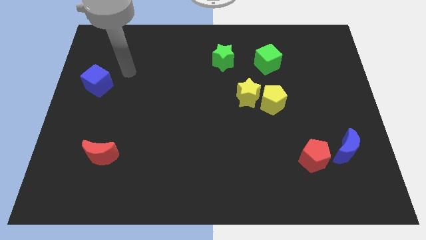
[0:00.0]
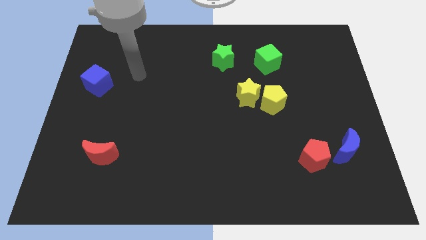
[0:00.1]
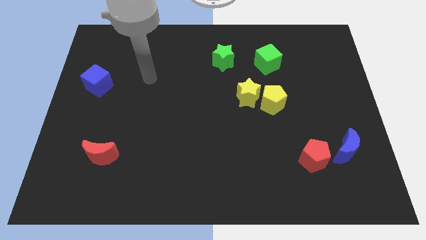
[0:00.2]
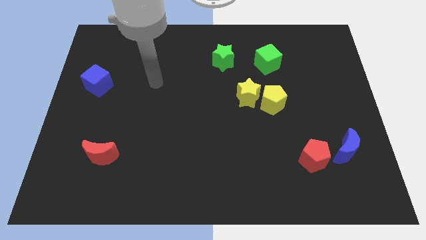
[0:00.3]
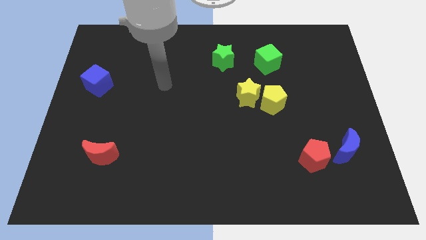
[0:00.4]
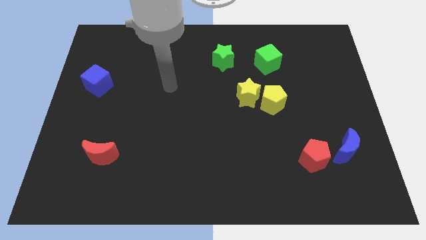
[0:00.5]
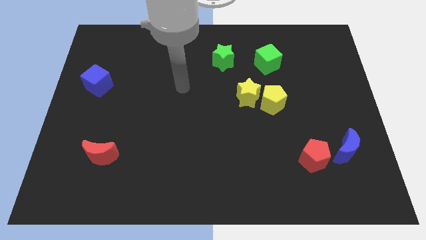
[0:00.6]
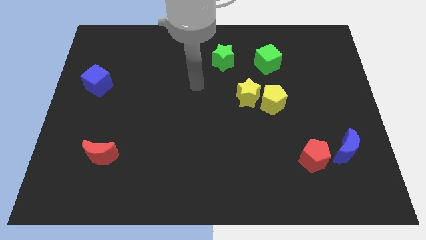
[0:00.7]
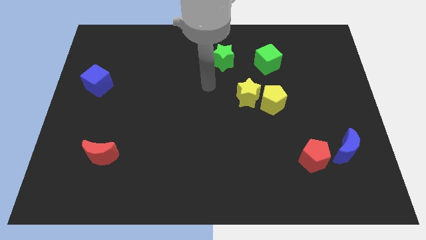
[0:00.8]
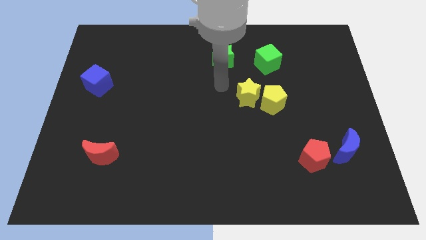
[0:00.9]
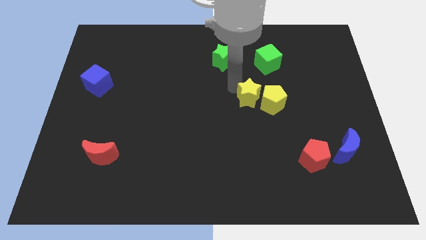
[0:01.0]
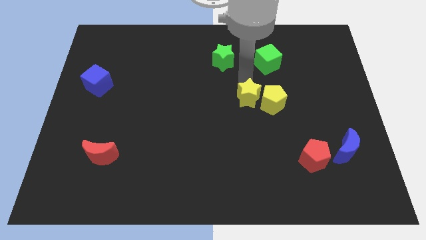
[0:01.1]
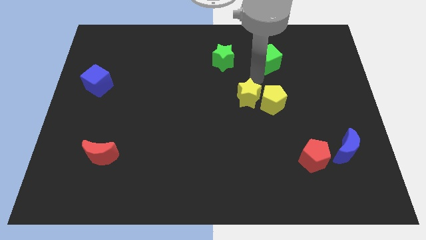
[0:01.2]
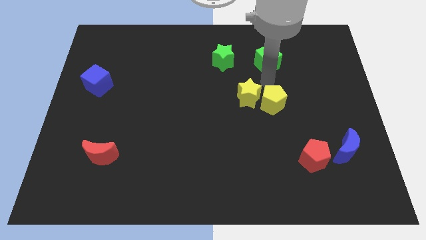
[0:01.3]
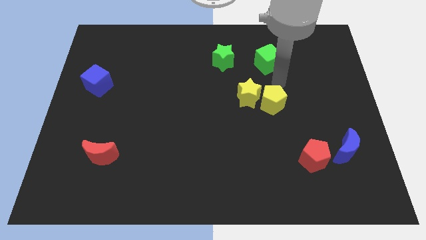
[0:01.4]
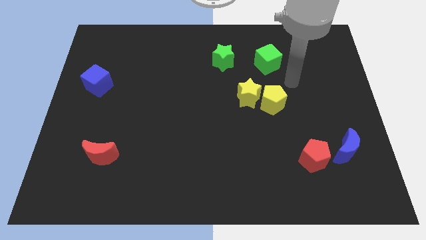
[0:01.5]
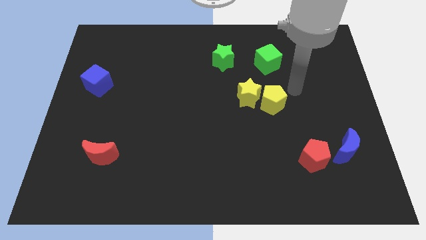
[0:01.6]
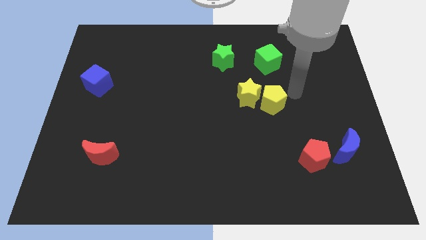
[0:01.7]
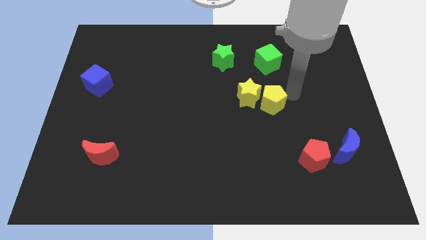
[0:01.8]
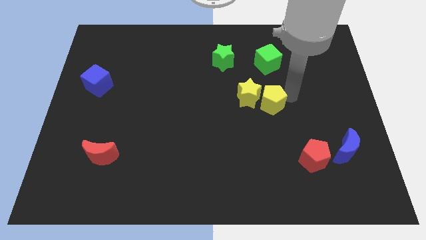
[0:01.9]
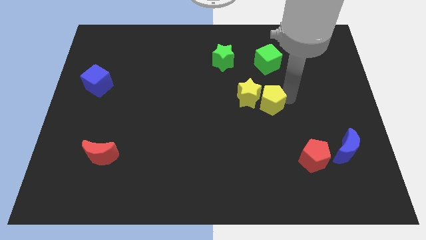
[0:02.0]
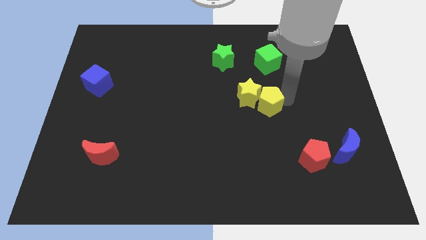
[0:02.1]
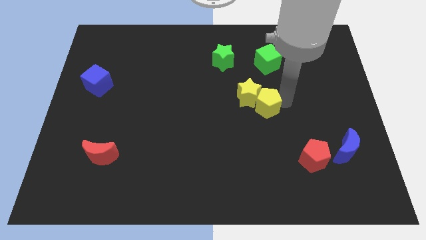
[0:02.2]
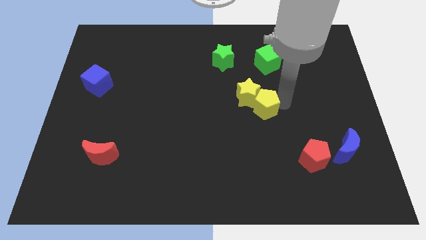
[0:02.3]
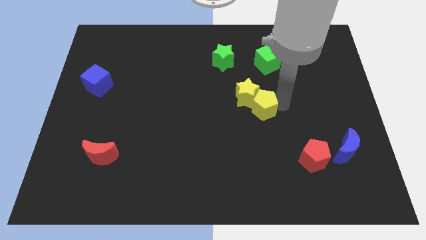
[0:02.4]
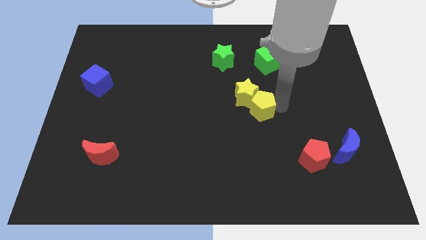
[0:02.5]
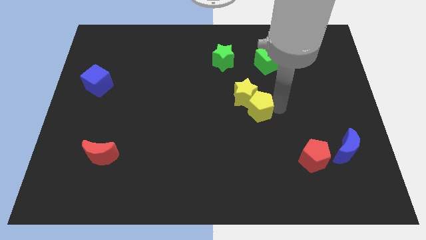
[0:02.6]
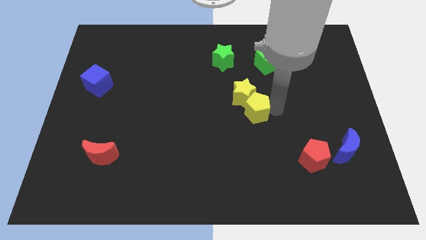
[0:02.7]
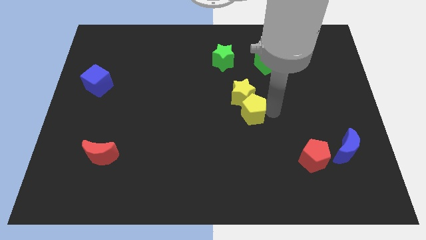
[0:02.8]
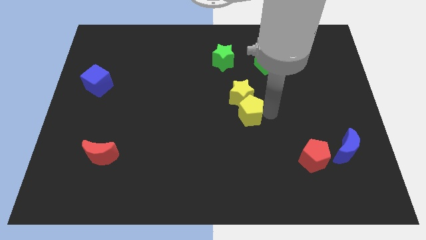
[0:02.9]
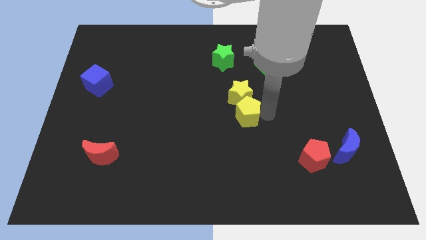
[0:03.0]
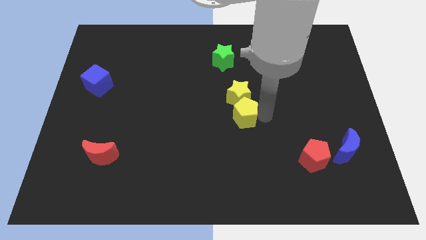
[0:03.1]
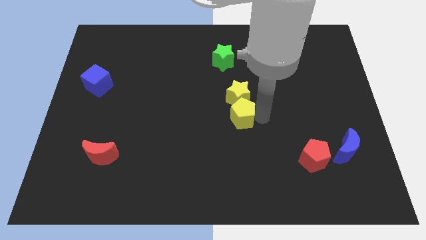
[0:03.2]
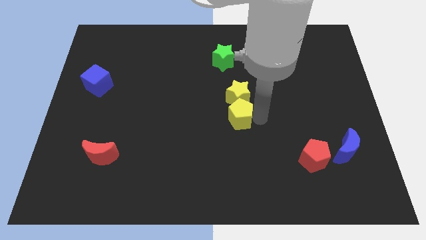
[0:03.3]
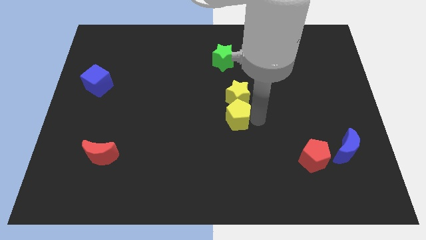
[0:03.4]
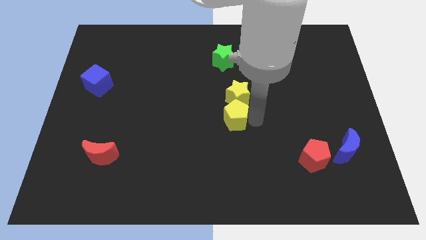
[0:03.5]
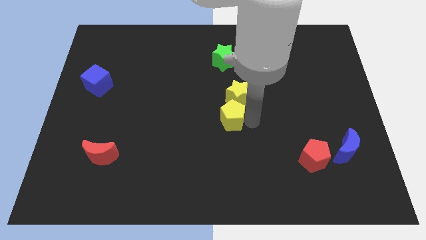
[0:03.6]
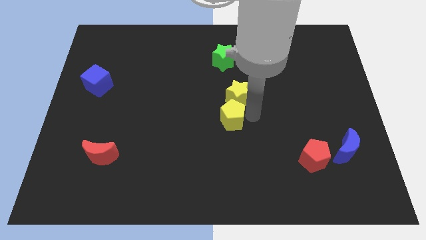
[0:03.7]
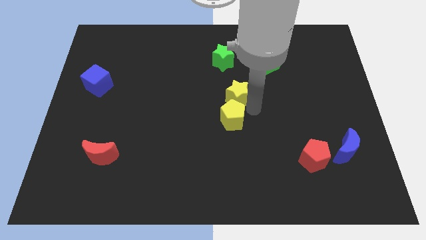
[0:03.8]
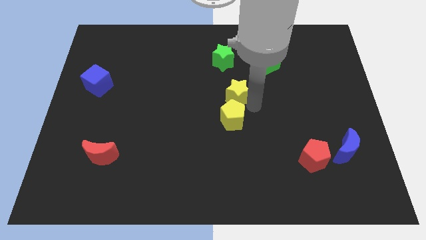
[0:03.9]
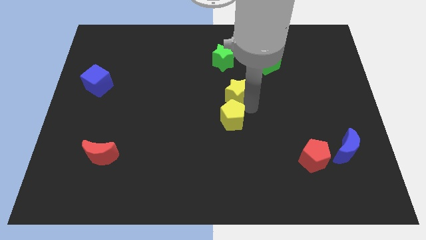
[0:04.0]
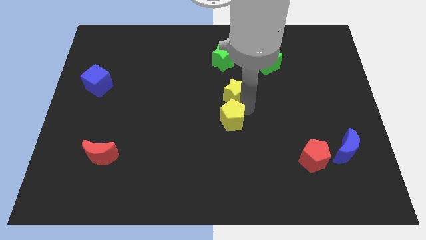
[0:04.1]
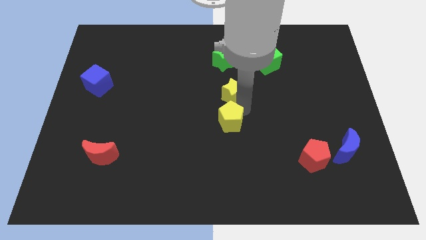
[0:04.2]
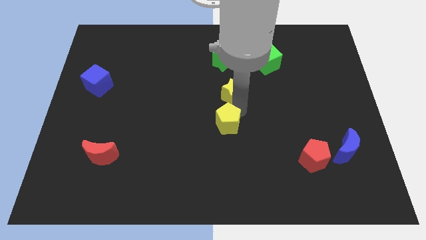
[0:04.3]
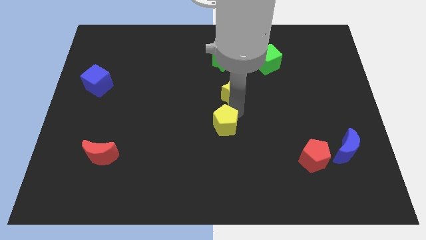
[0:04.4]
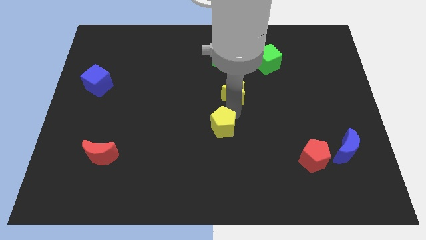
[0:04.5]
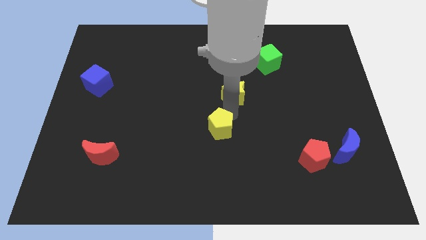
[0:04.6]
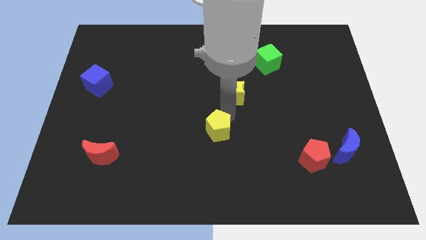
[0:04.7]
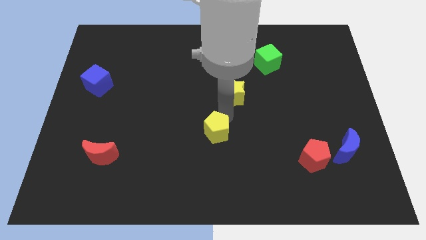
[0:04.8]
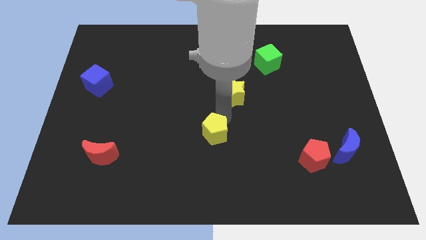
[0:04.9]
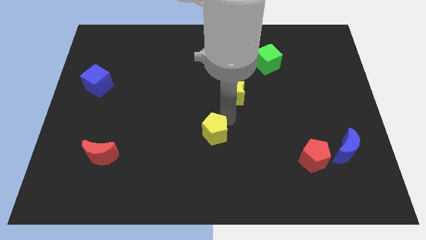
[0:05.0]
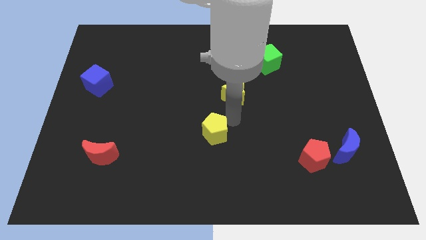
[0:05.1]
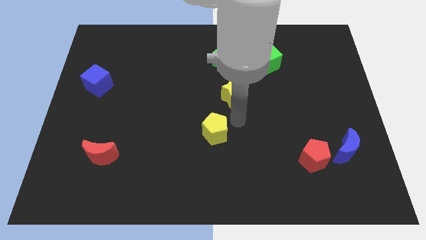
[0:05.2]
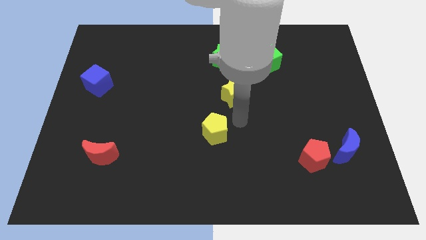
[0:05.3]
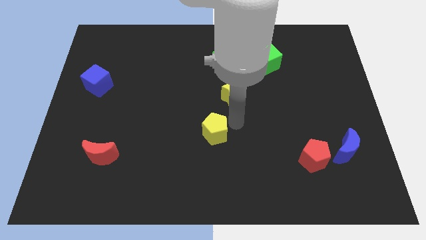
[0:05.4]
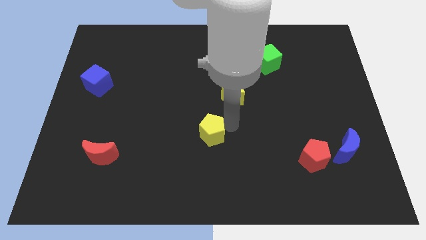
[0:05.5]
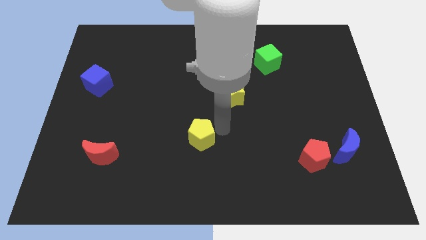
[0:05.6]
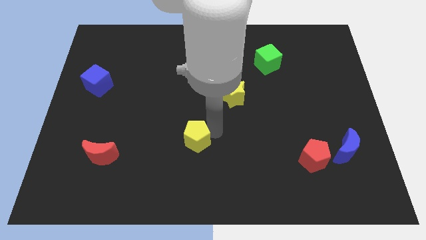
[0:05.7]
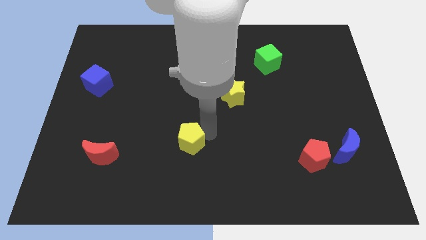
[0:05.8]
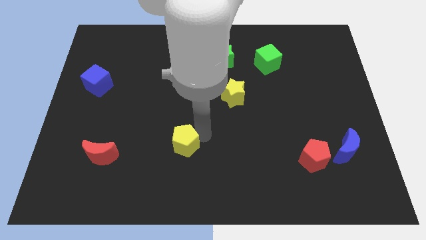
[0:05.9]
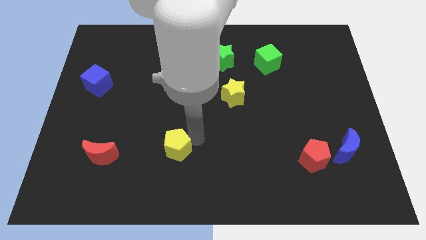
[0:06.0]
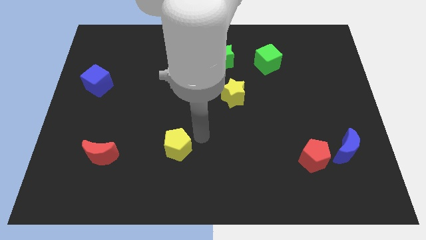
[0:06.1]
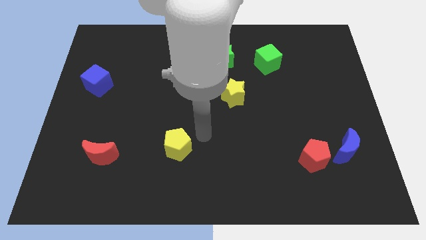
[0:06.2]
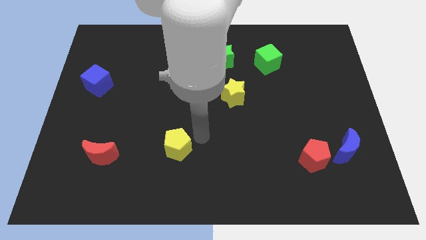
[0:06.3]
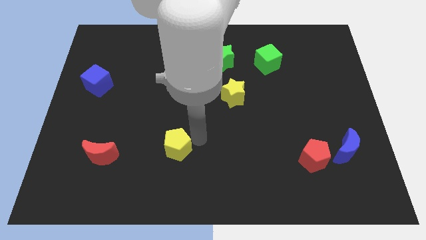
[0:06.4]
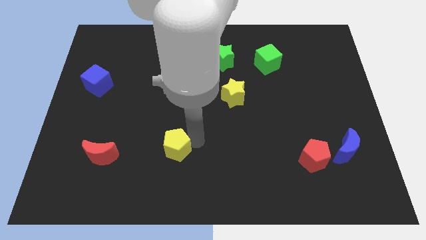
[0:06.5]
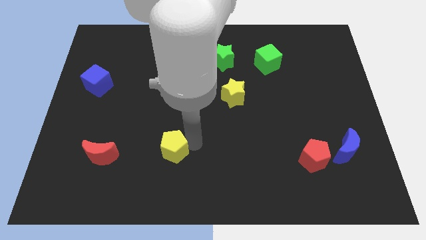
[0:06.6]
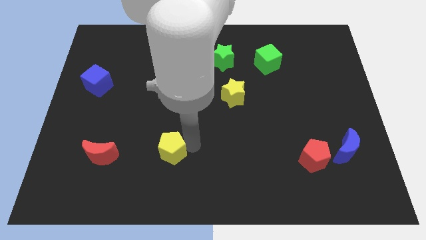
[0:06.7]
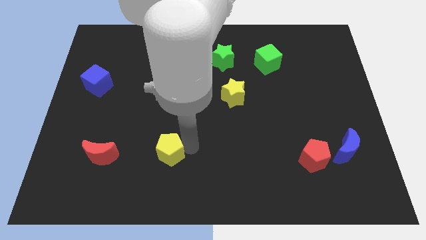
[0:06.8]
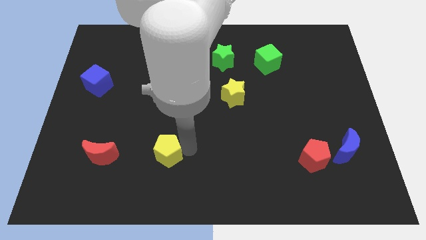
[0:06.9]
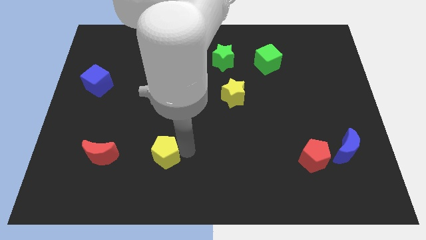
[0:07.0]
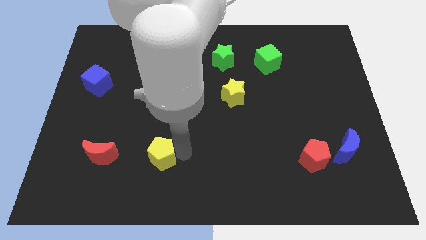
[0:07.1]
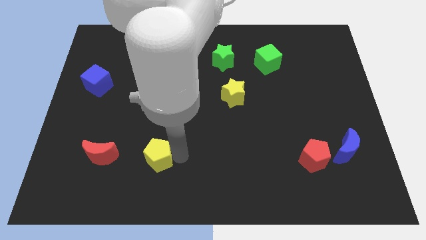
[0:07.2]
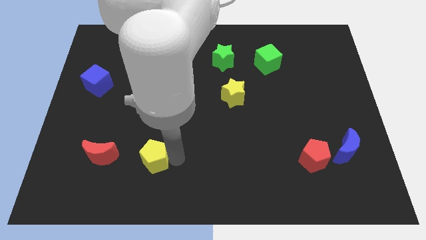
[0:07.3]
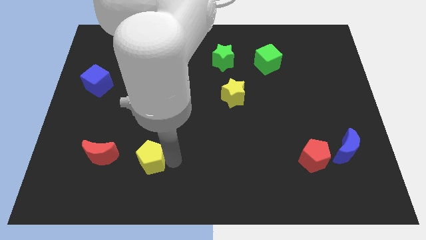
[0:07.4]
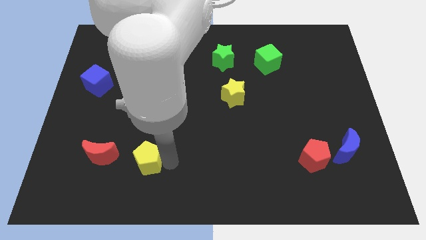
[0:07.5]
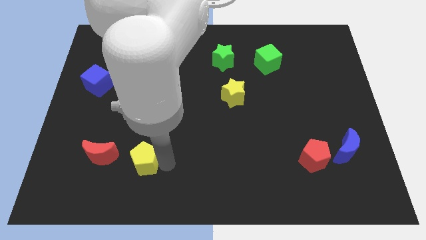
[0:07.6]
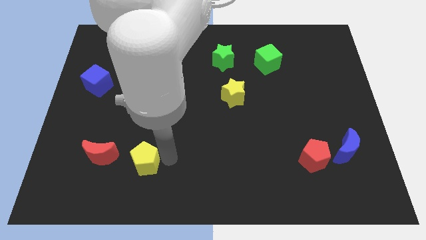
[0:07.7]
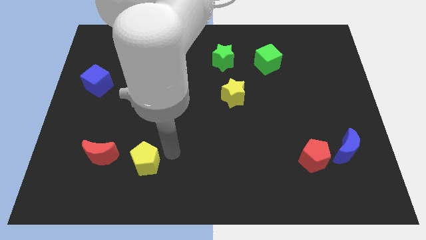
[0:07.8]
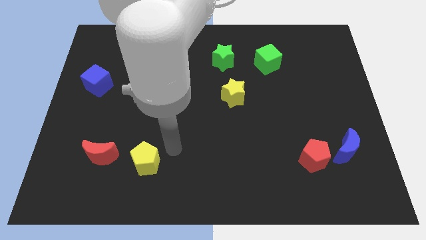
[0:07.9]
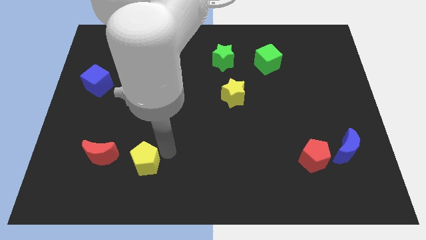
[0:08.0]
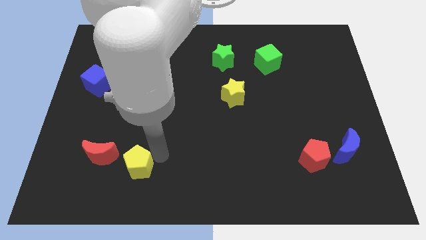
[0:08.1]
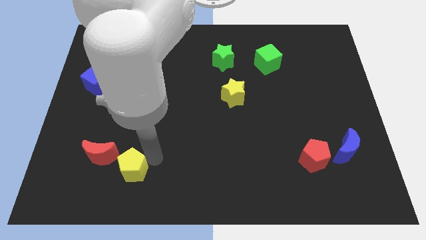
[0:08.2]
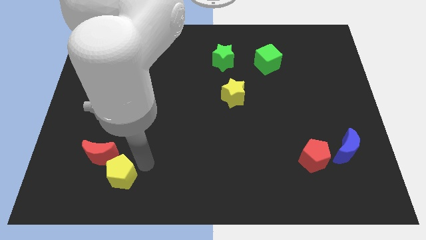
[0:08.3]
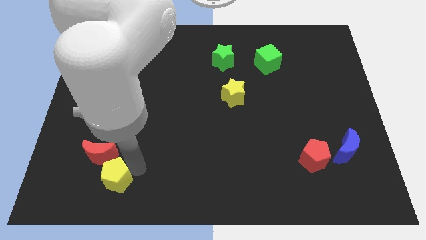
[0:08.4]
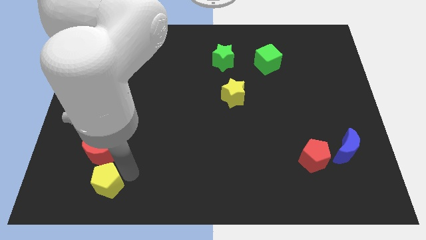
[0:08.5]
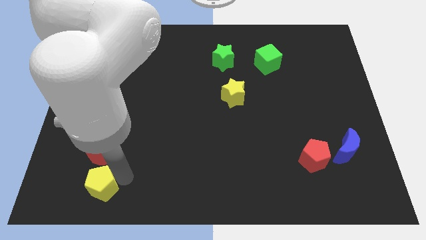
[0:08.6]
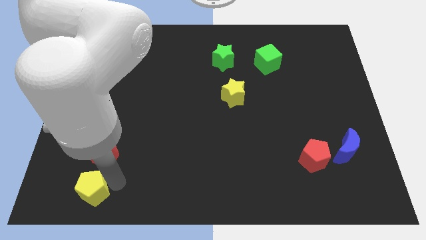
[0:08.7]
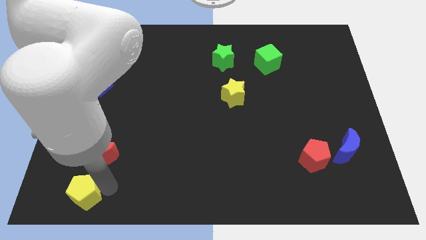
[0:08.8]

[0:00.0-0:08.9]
put the yellow pentagon to the bottom left side of the red moon
